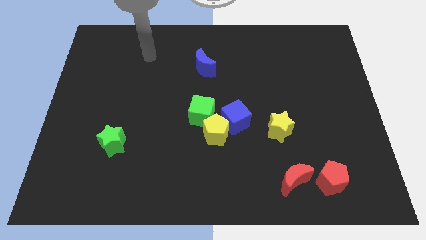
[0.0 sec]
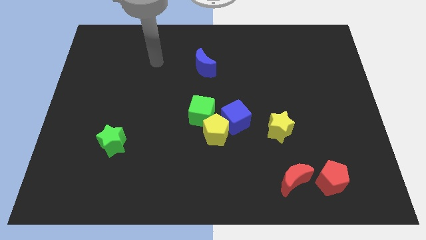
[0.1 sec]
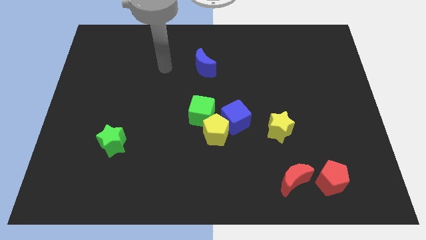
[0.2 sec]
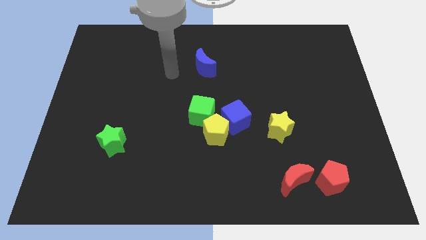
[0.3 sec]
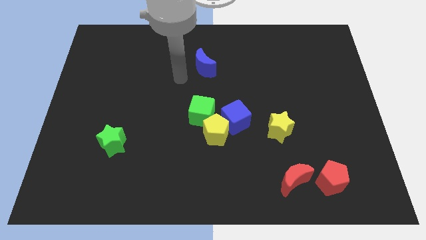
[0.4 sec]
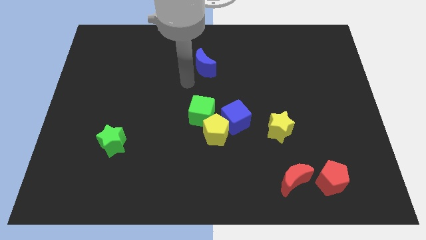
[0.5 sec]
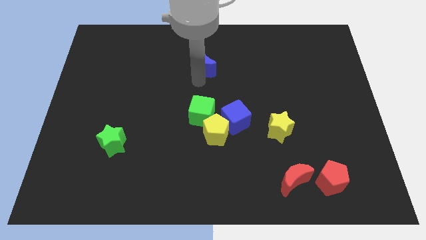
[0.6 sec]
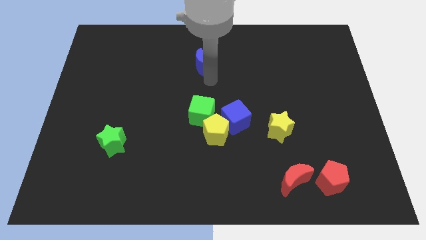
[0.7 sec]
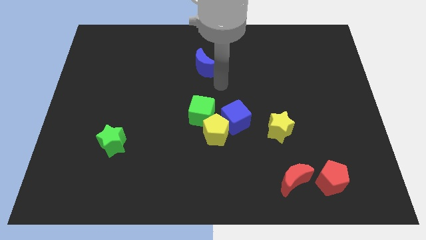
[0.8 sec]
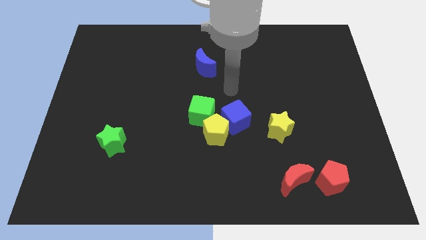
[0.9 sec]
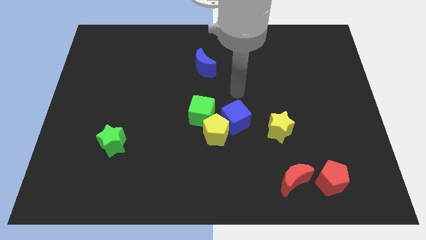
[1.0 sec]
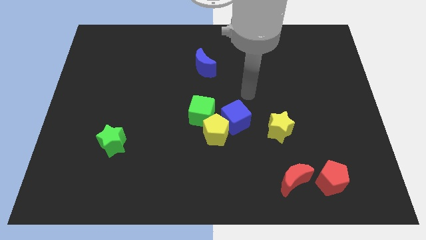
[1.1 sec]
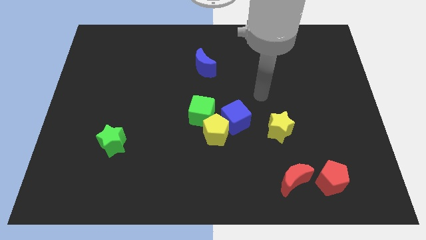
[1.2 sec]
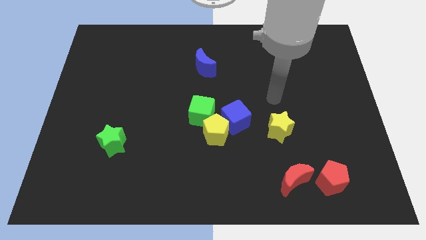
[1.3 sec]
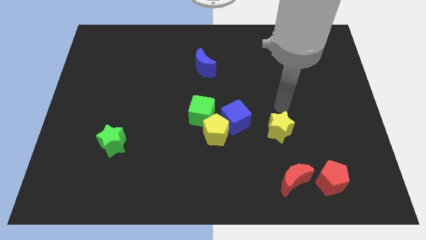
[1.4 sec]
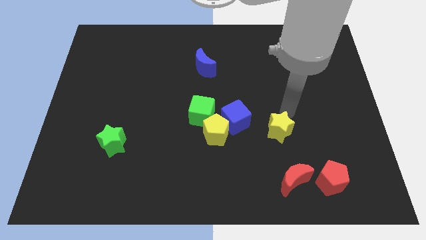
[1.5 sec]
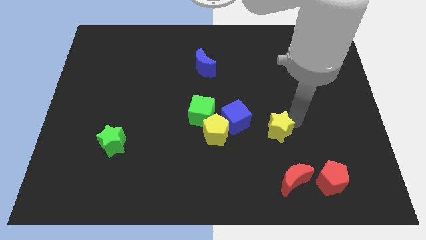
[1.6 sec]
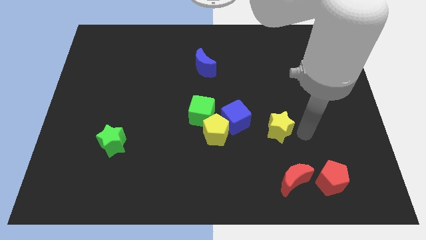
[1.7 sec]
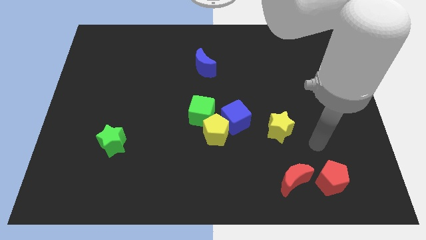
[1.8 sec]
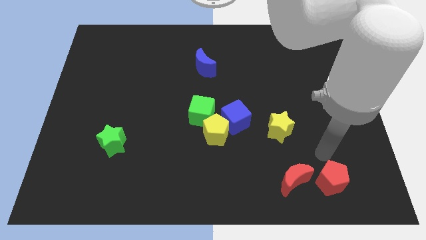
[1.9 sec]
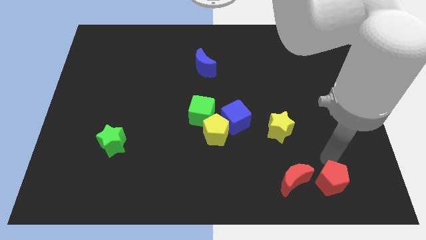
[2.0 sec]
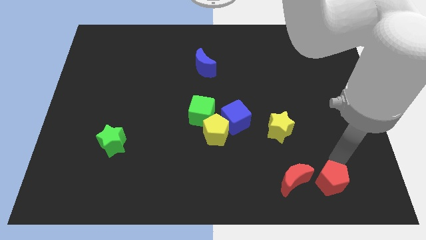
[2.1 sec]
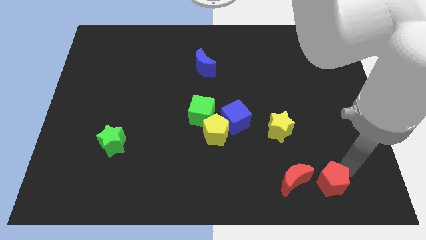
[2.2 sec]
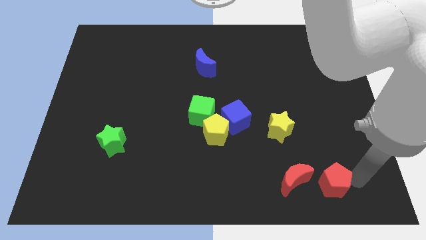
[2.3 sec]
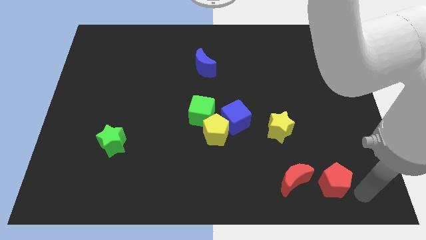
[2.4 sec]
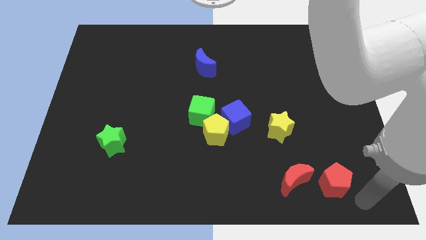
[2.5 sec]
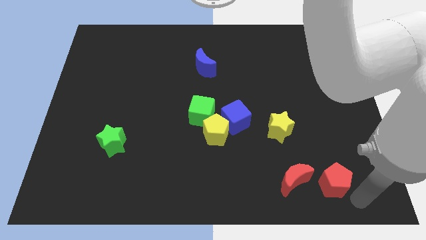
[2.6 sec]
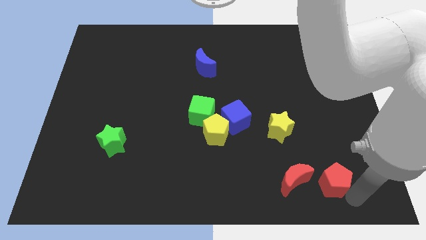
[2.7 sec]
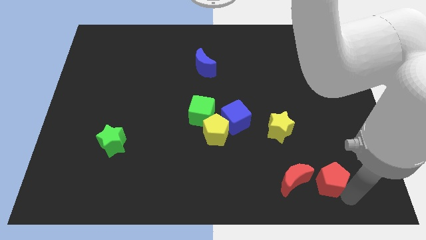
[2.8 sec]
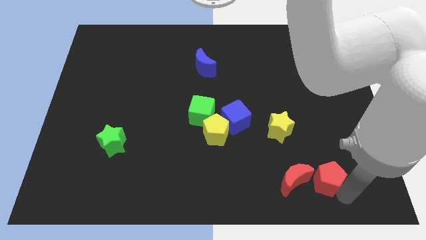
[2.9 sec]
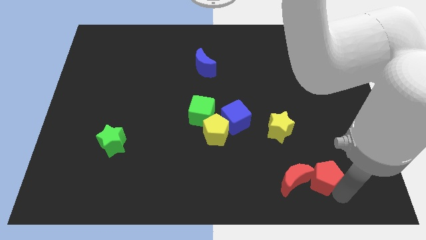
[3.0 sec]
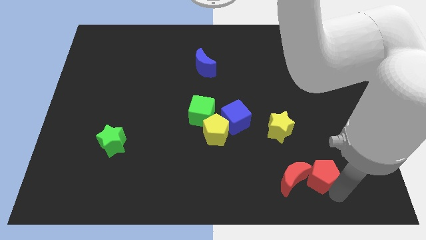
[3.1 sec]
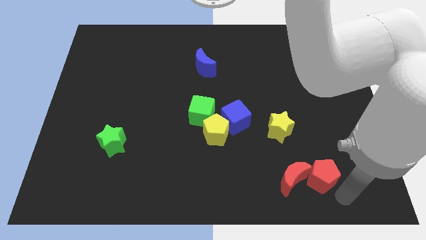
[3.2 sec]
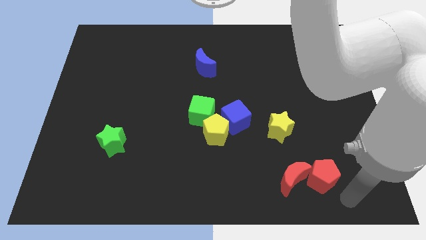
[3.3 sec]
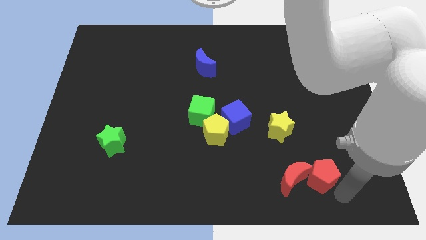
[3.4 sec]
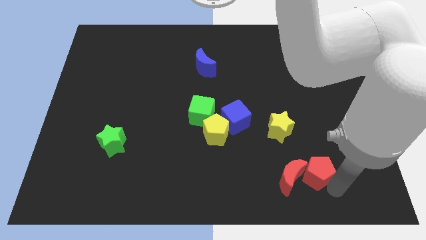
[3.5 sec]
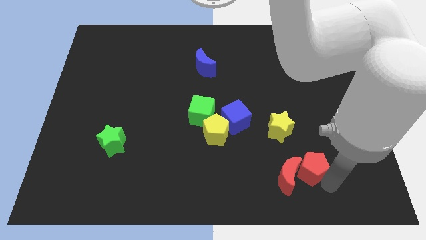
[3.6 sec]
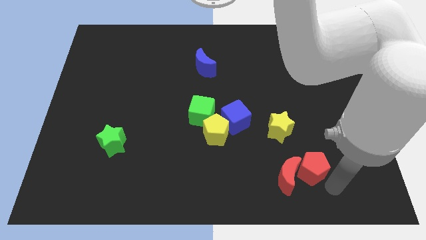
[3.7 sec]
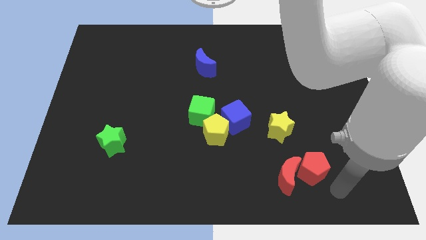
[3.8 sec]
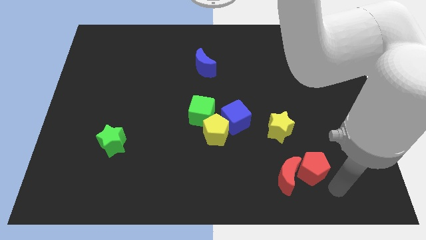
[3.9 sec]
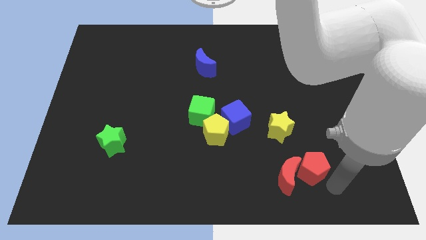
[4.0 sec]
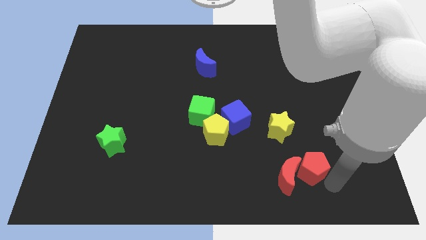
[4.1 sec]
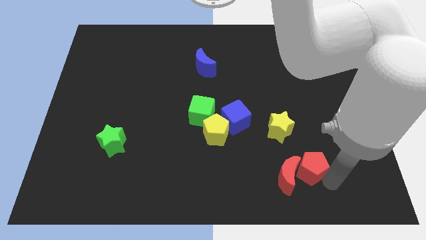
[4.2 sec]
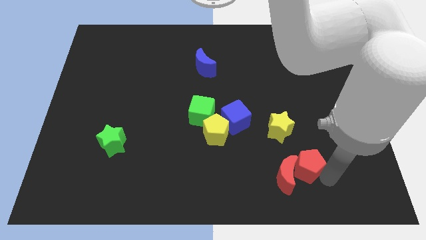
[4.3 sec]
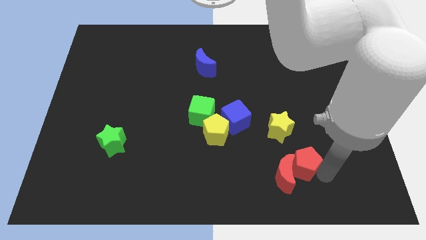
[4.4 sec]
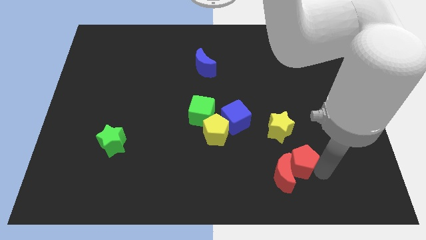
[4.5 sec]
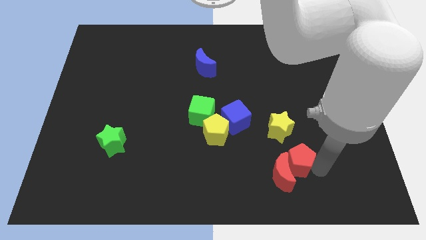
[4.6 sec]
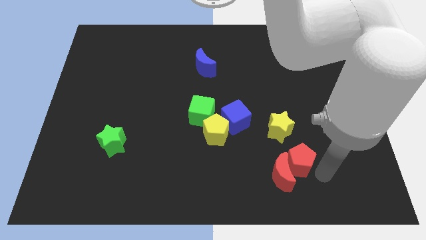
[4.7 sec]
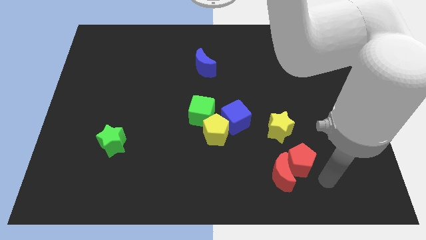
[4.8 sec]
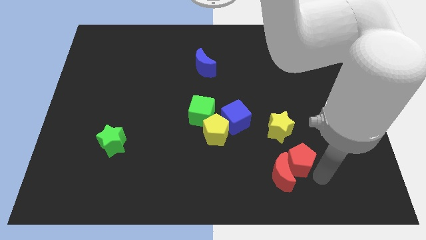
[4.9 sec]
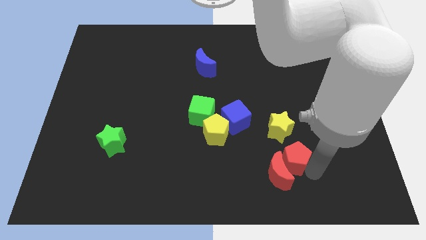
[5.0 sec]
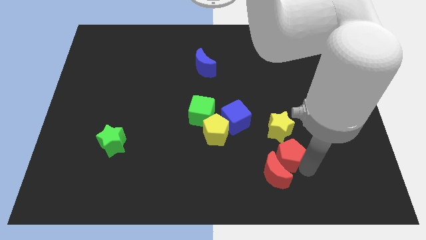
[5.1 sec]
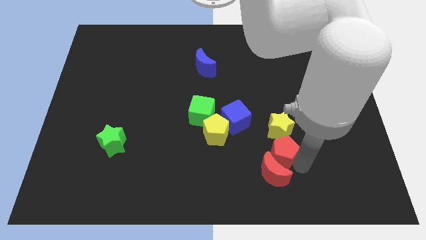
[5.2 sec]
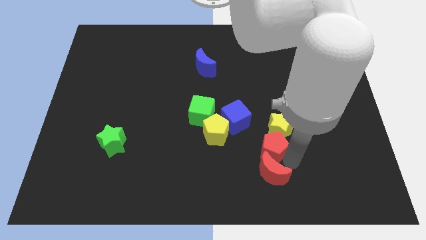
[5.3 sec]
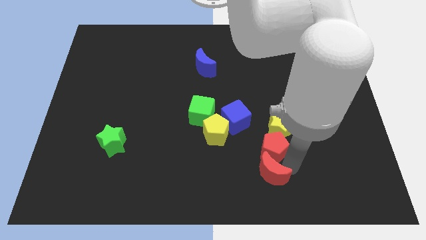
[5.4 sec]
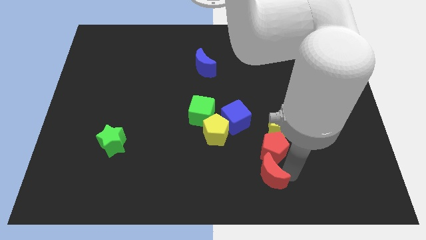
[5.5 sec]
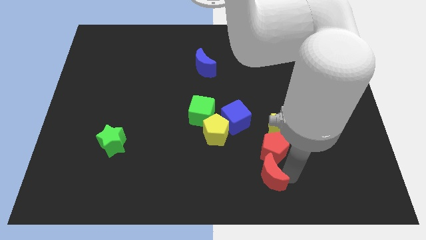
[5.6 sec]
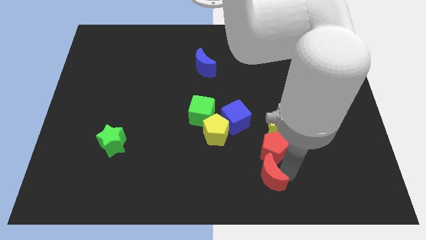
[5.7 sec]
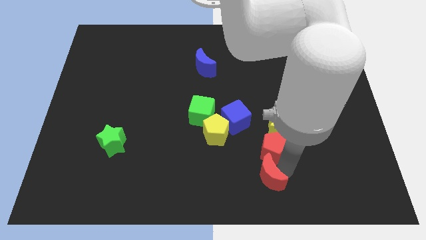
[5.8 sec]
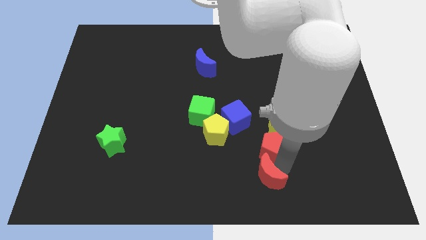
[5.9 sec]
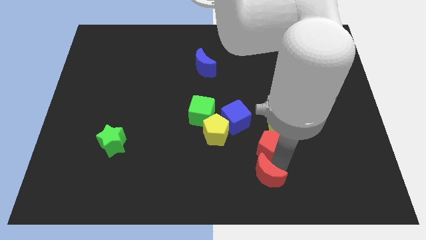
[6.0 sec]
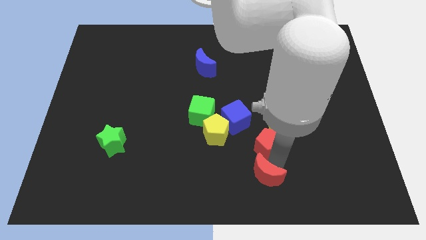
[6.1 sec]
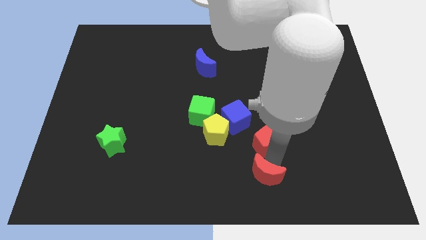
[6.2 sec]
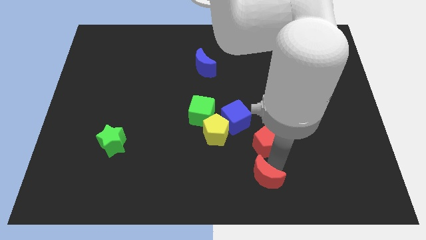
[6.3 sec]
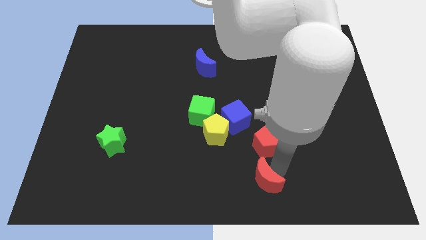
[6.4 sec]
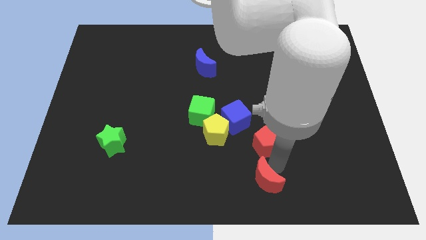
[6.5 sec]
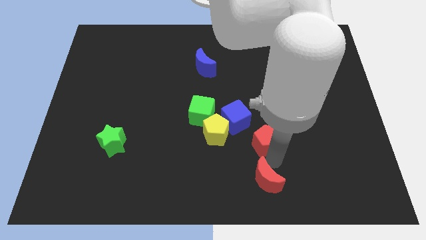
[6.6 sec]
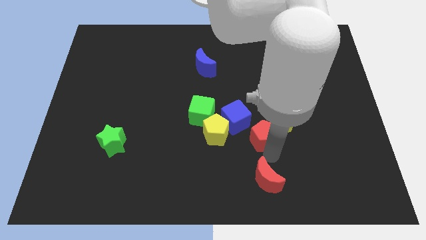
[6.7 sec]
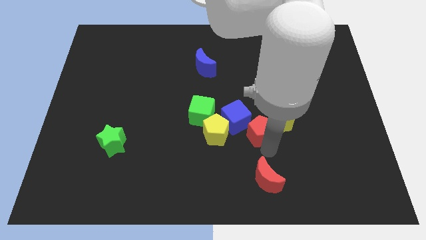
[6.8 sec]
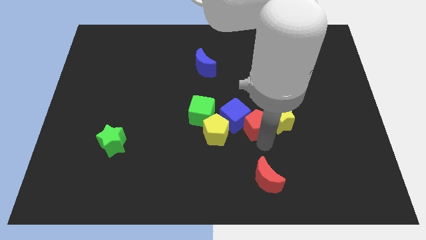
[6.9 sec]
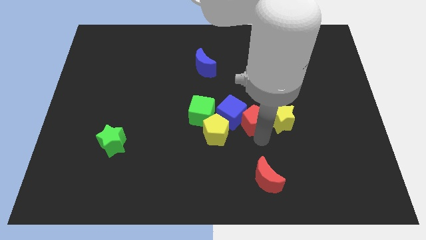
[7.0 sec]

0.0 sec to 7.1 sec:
move the red pentagon upwards and left diagonally

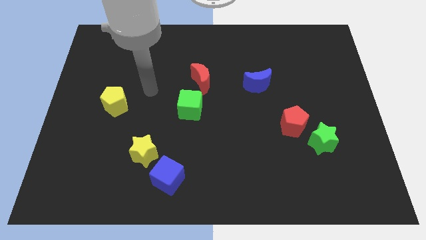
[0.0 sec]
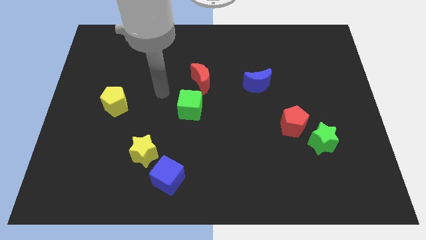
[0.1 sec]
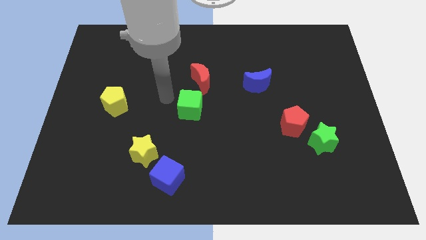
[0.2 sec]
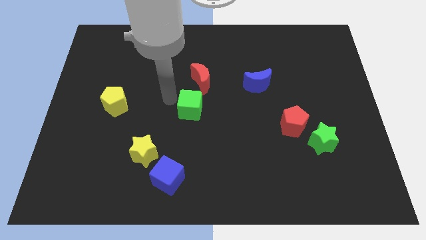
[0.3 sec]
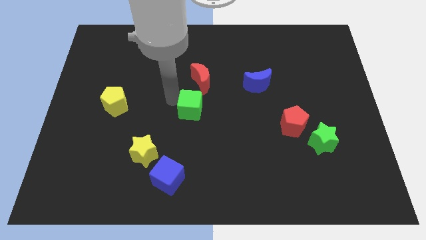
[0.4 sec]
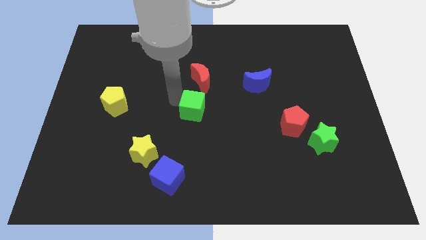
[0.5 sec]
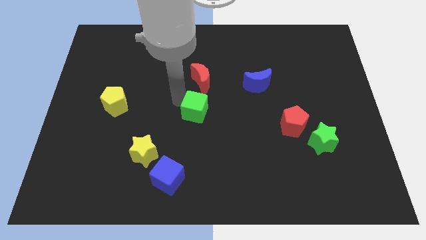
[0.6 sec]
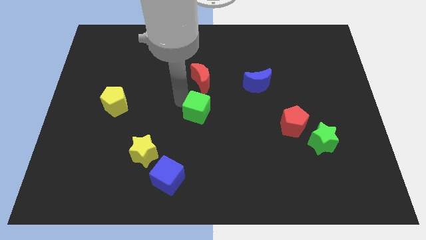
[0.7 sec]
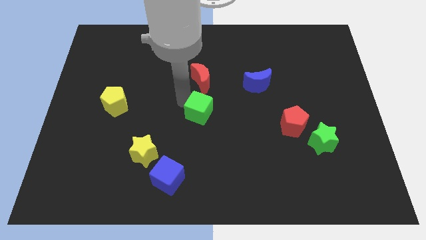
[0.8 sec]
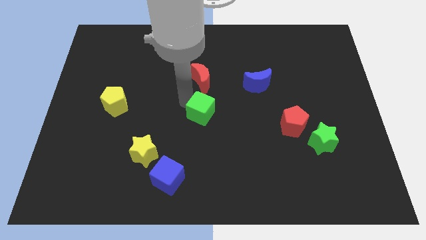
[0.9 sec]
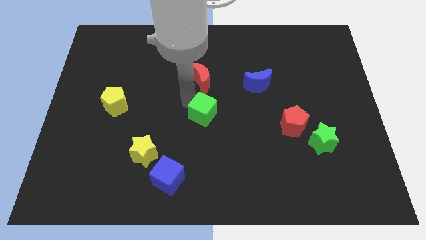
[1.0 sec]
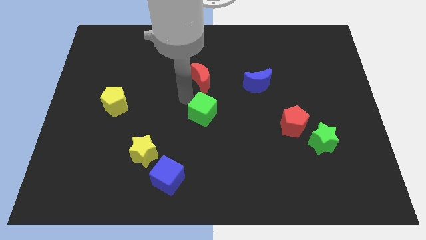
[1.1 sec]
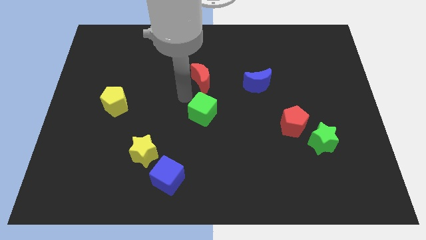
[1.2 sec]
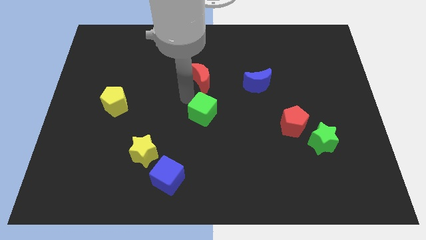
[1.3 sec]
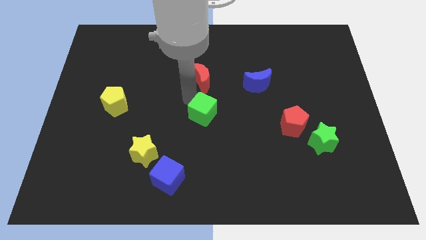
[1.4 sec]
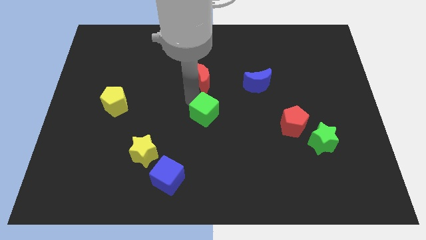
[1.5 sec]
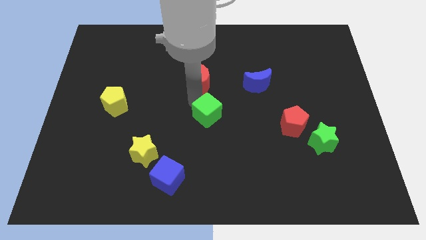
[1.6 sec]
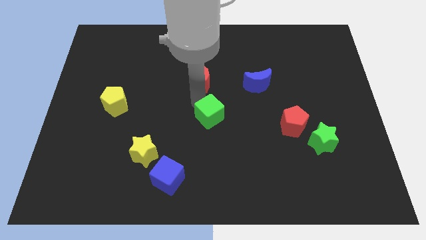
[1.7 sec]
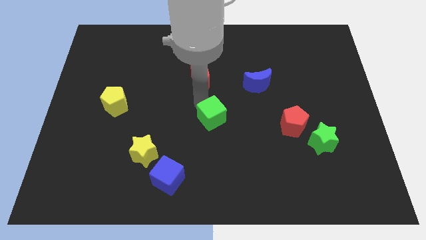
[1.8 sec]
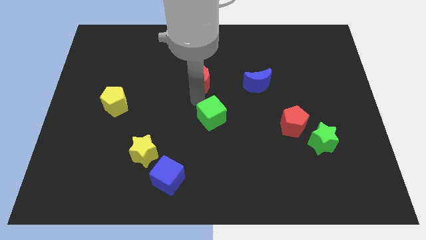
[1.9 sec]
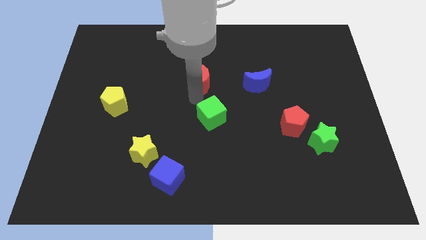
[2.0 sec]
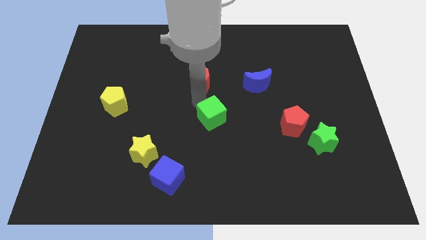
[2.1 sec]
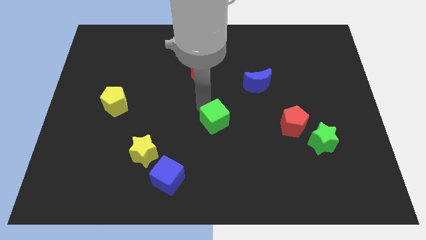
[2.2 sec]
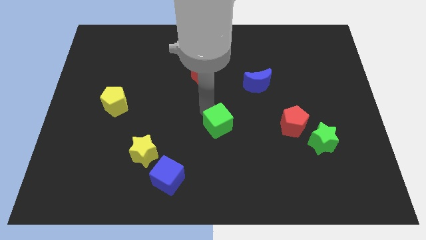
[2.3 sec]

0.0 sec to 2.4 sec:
slide the green cube diagonally down and right slightly
